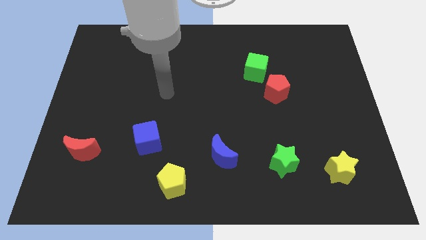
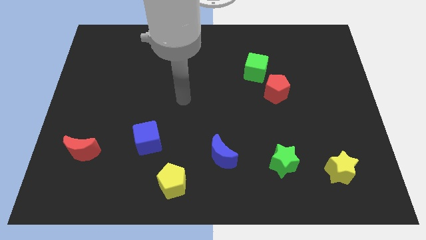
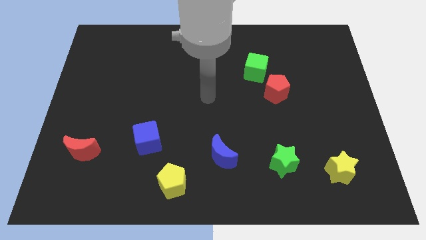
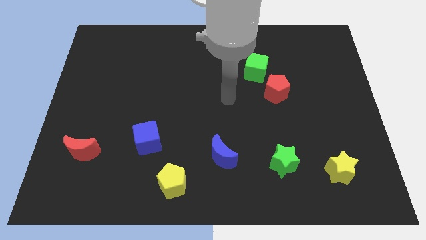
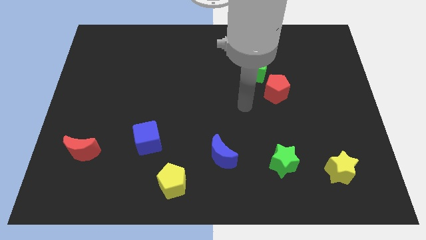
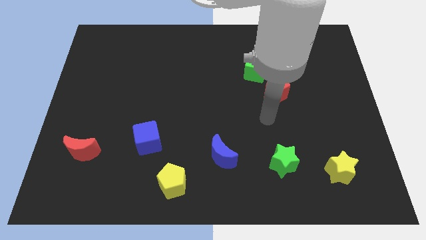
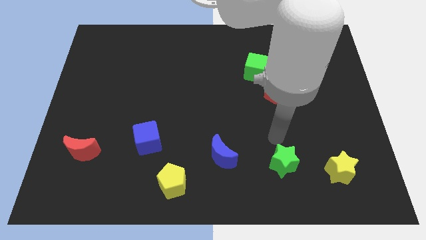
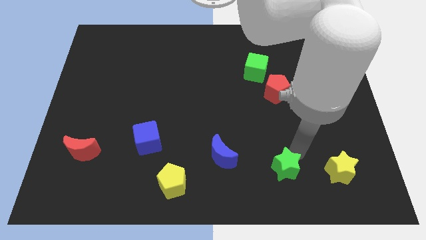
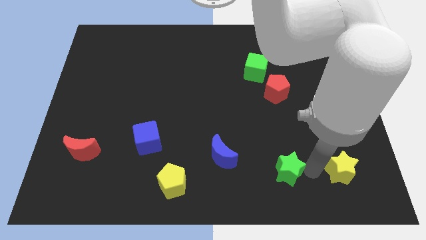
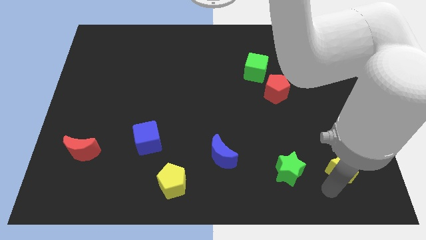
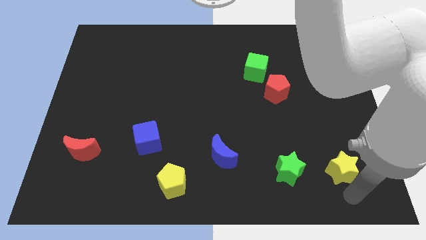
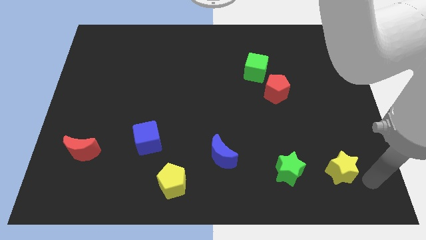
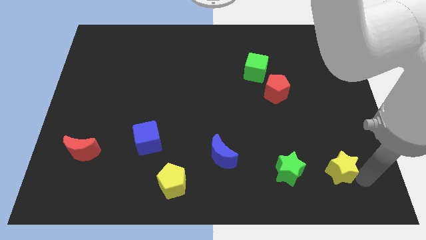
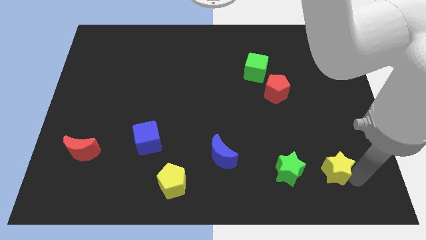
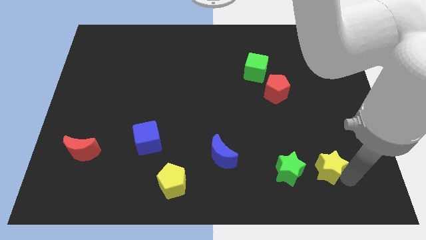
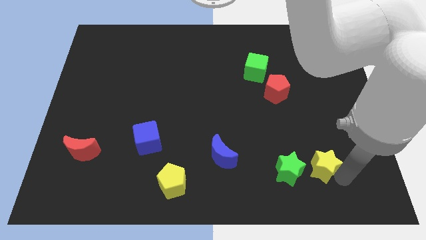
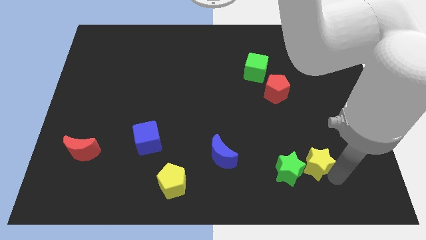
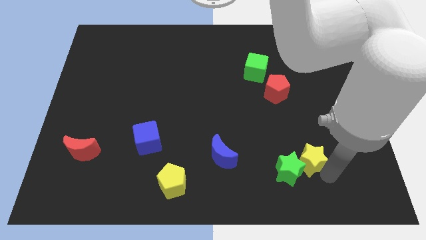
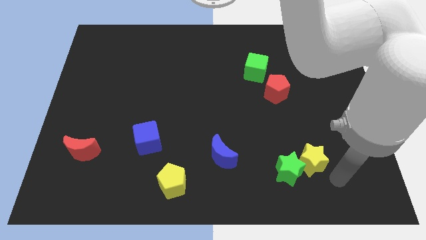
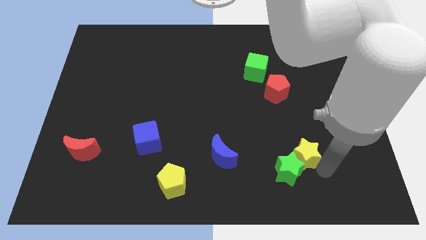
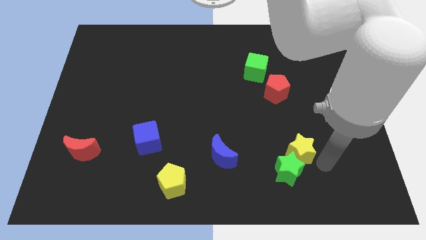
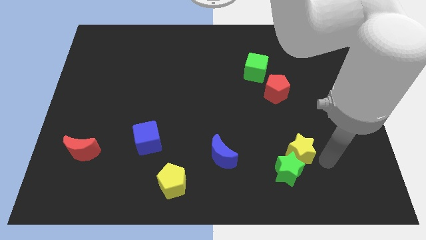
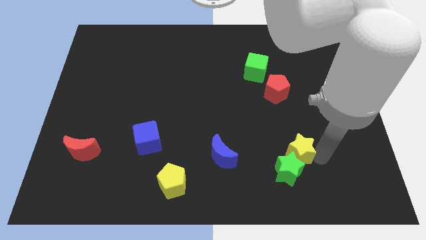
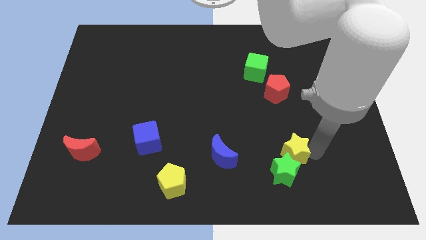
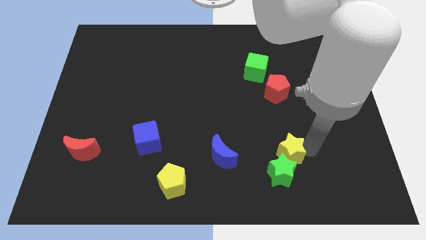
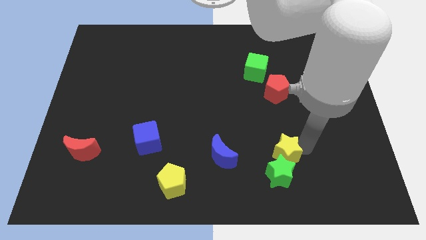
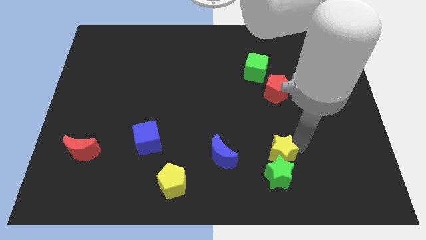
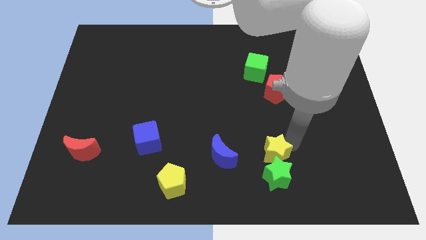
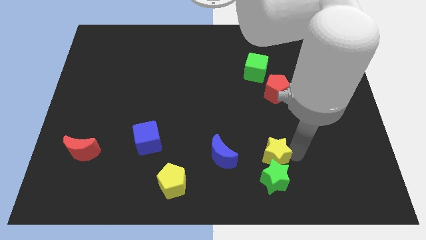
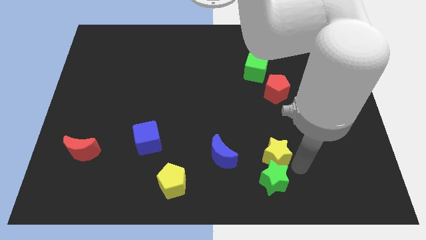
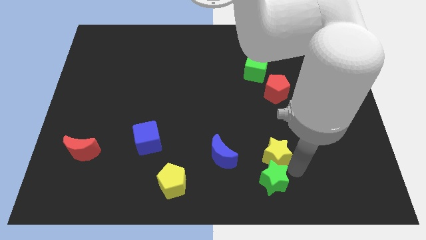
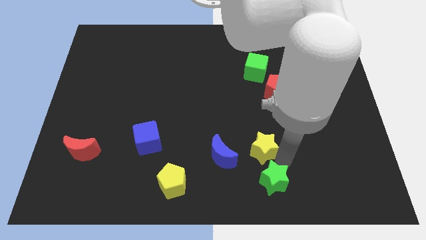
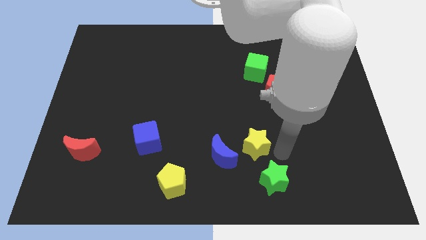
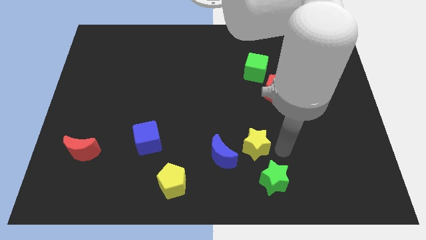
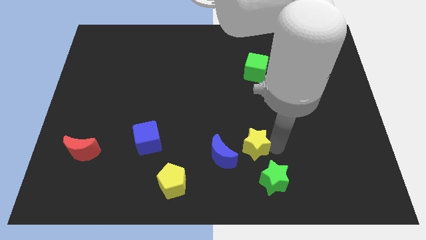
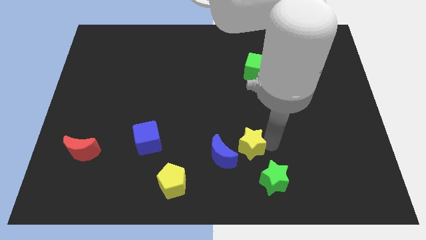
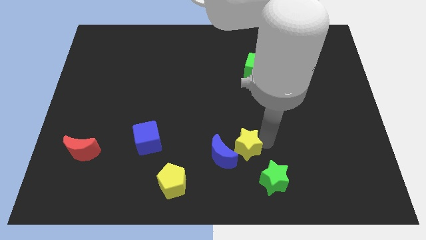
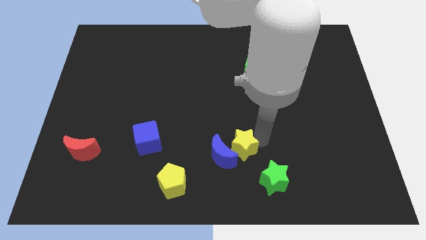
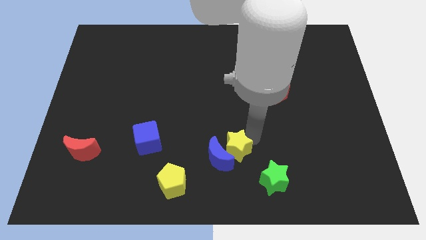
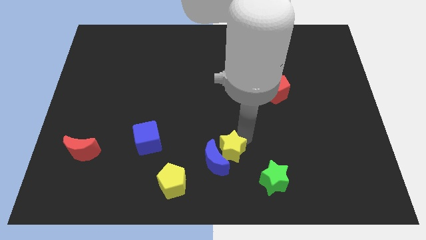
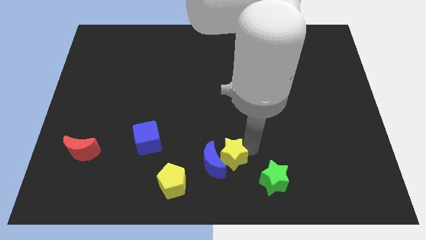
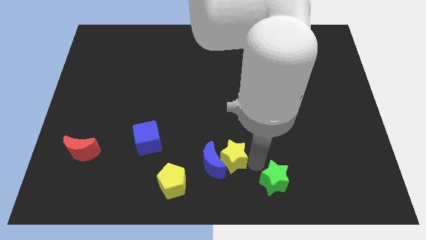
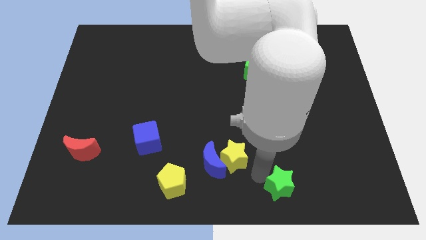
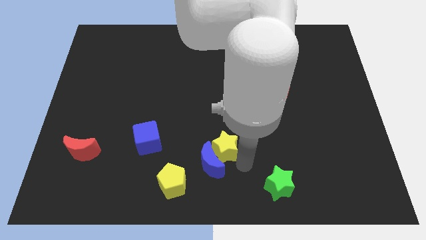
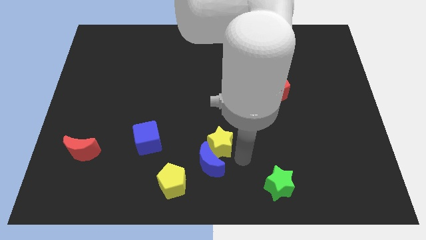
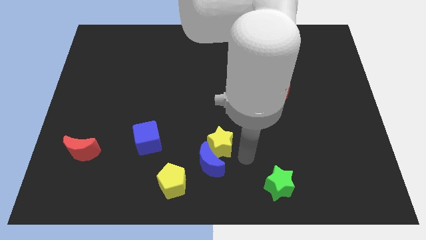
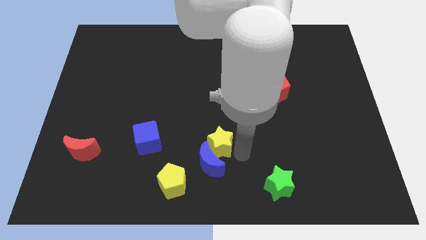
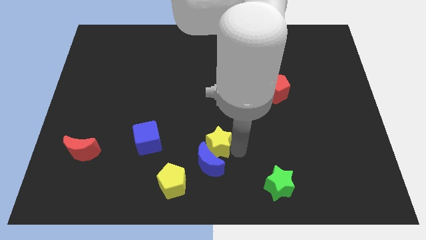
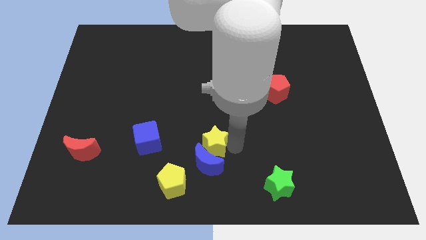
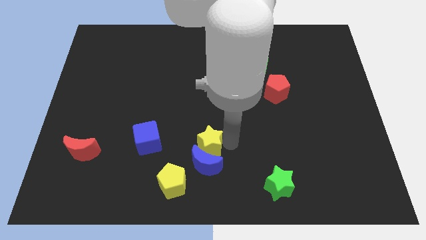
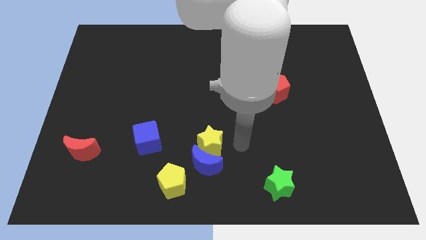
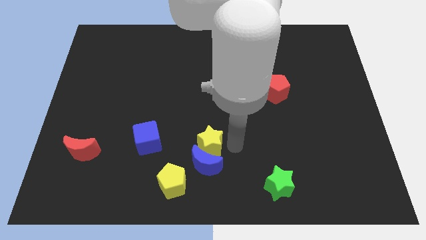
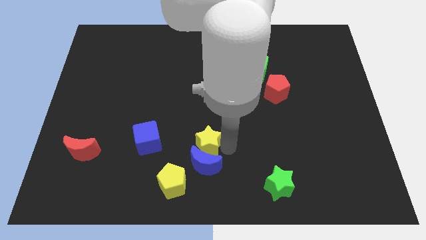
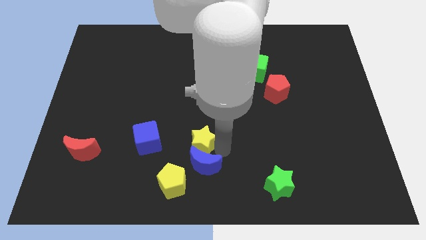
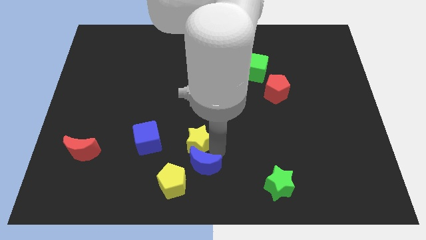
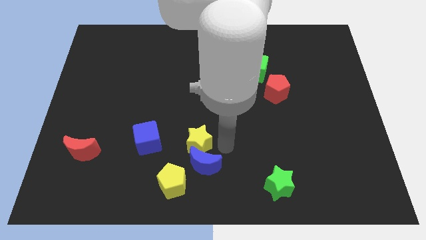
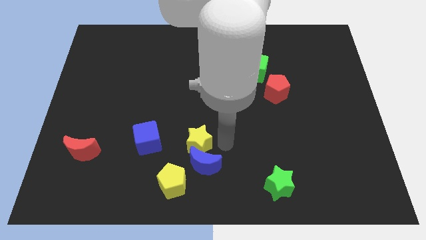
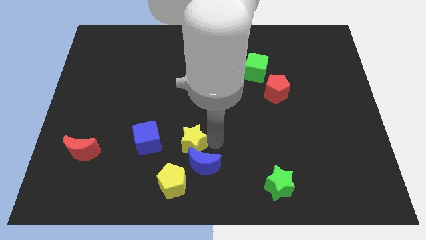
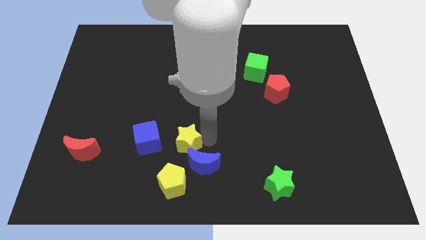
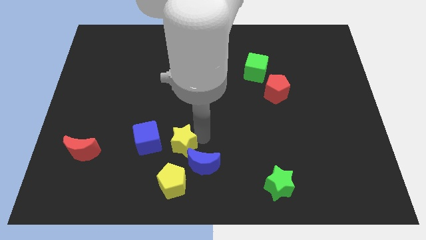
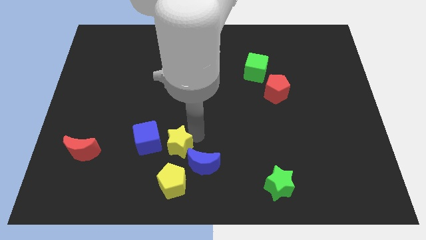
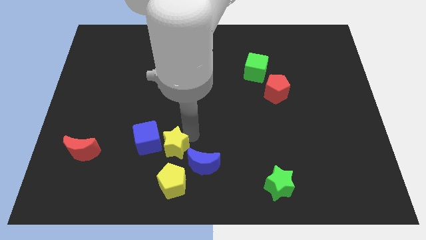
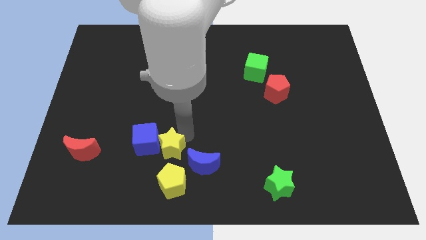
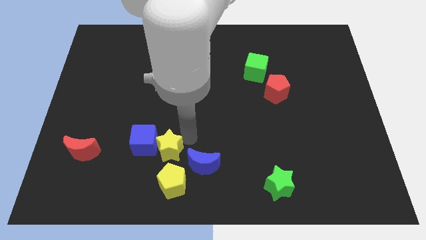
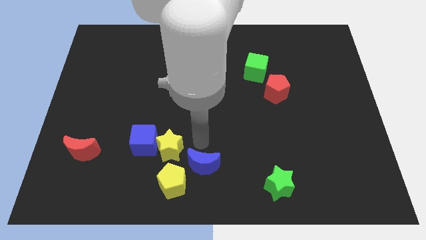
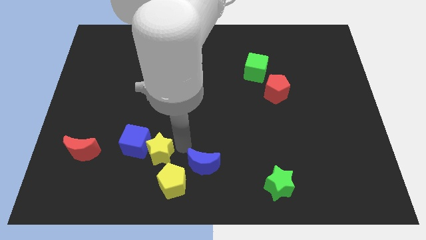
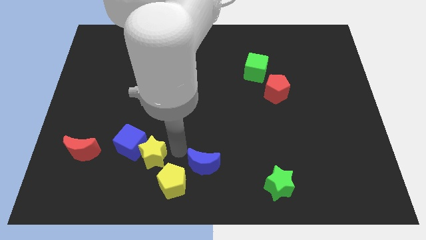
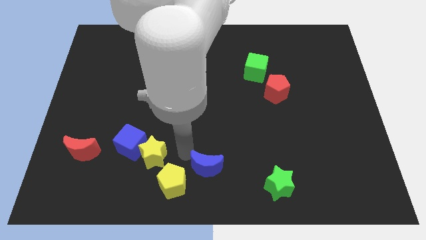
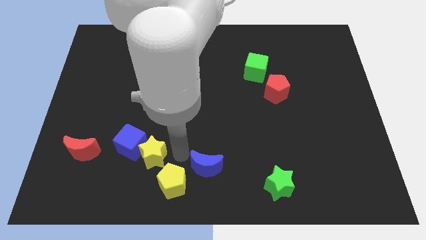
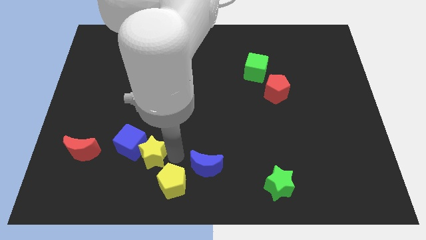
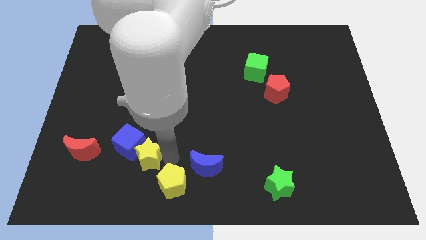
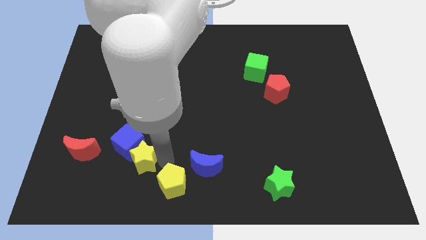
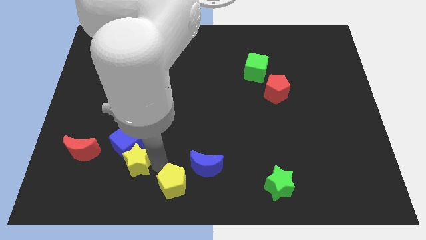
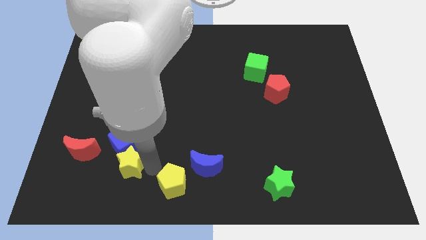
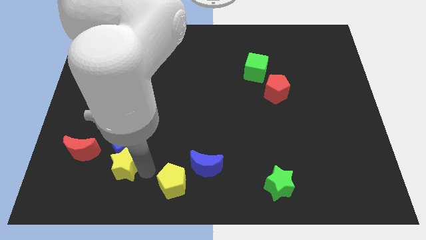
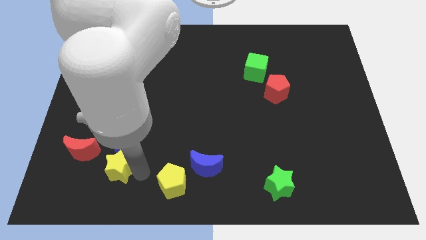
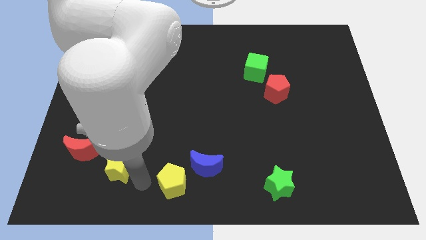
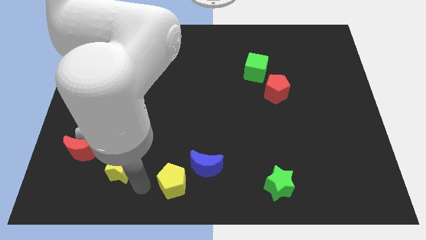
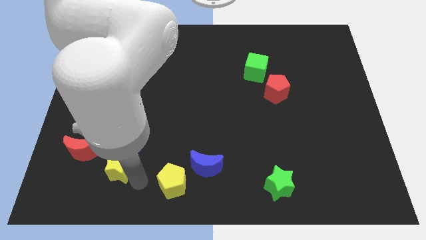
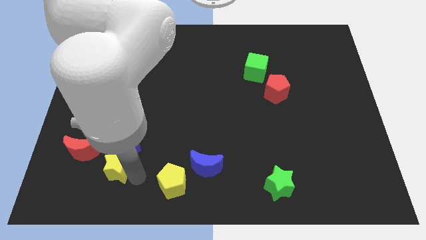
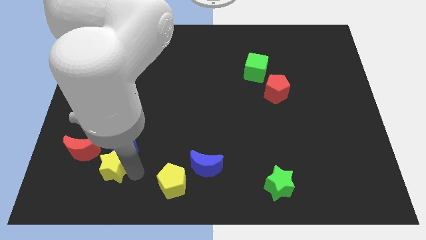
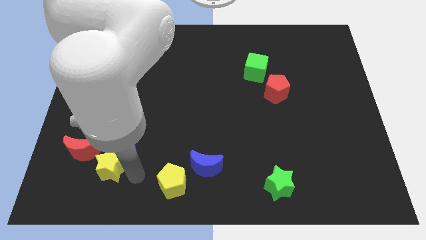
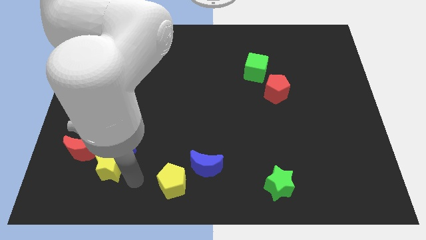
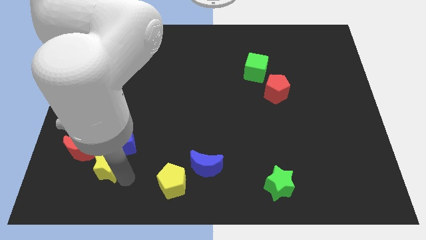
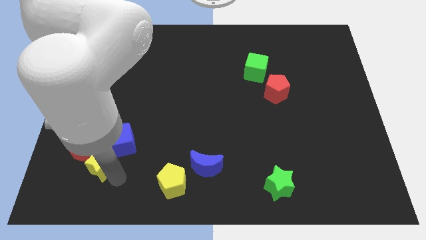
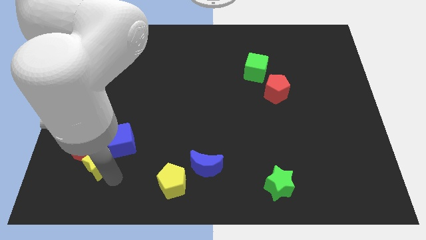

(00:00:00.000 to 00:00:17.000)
slide the yellow star next to the red moon
